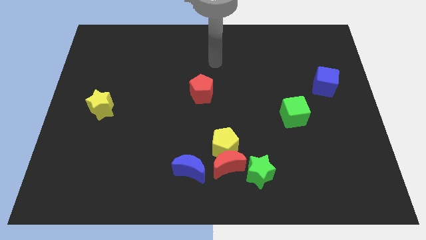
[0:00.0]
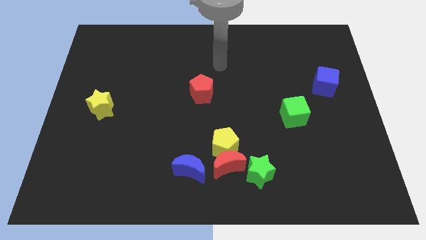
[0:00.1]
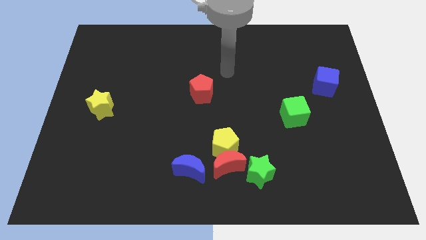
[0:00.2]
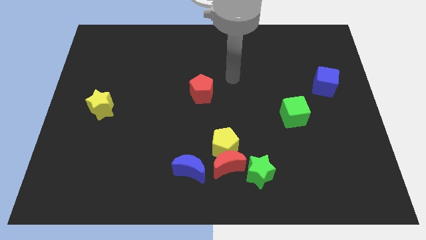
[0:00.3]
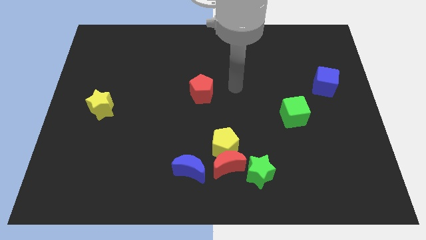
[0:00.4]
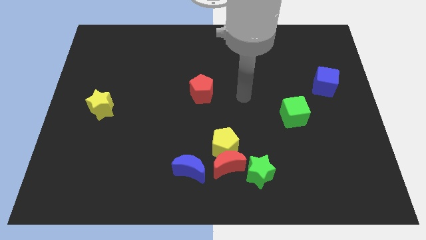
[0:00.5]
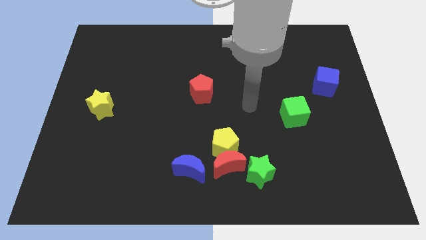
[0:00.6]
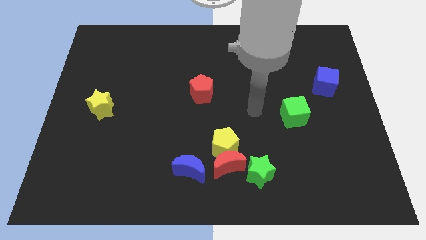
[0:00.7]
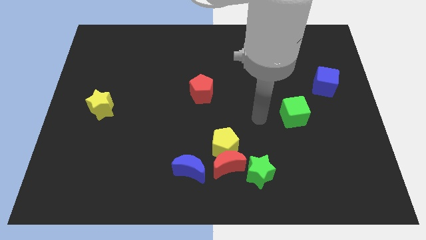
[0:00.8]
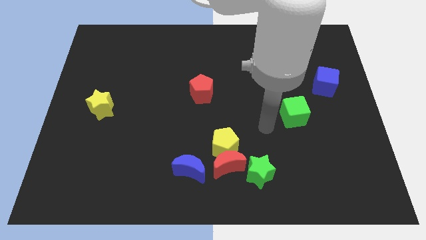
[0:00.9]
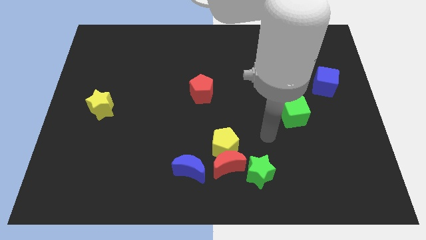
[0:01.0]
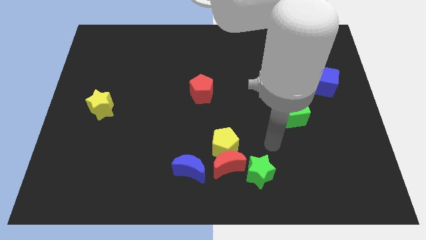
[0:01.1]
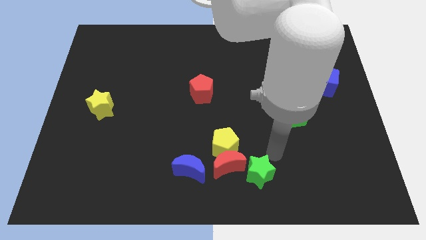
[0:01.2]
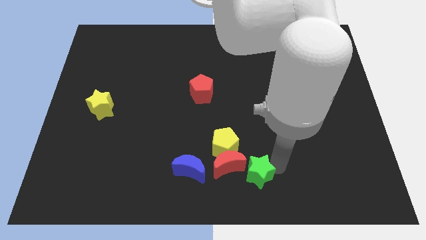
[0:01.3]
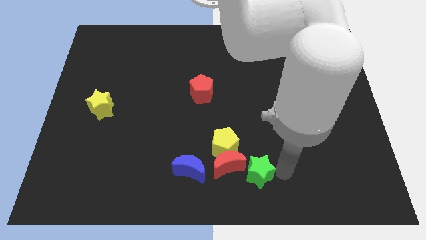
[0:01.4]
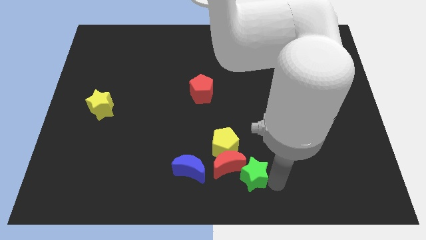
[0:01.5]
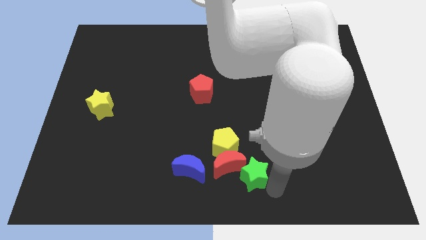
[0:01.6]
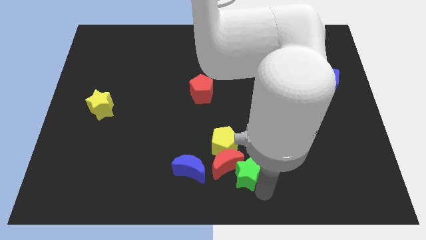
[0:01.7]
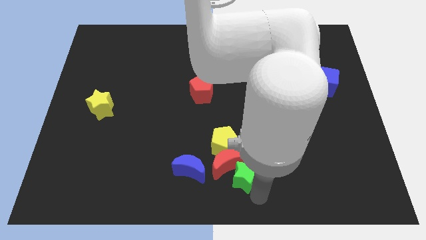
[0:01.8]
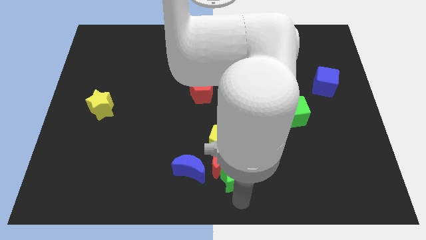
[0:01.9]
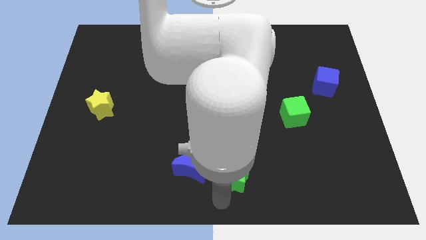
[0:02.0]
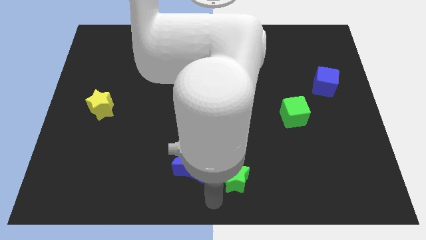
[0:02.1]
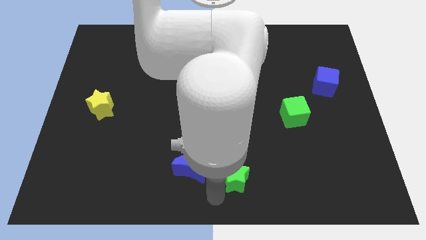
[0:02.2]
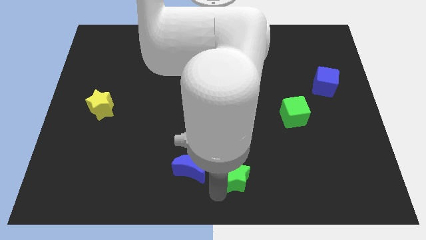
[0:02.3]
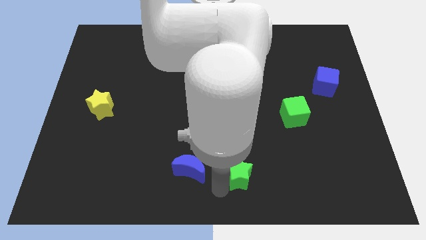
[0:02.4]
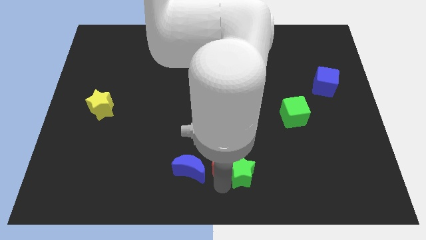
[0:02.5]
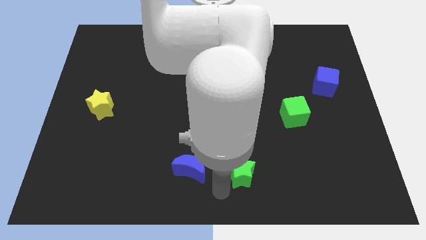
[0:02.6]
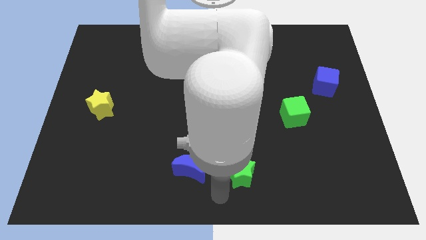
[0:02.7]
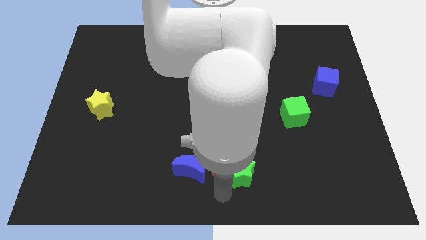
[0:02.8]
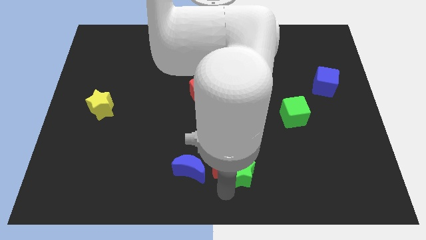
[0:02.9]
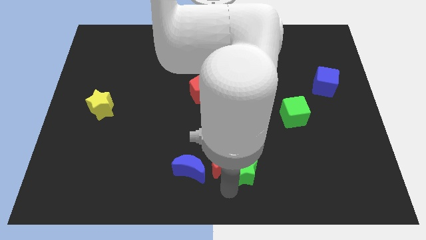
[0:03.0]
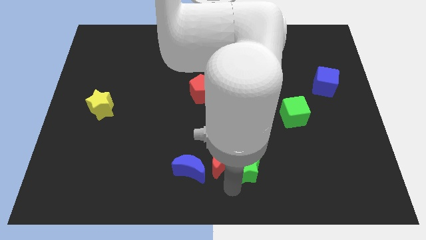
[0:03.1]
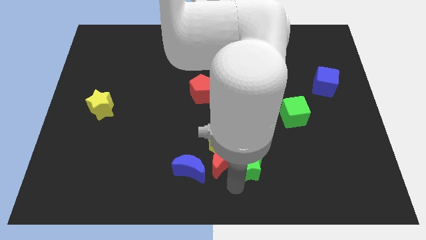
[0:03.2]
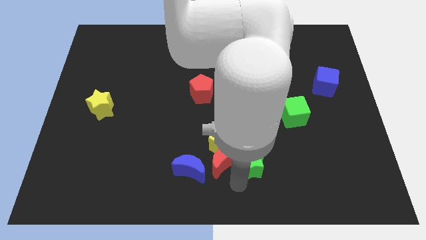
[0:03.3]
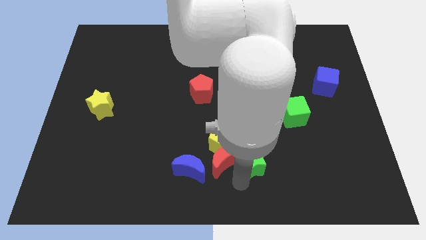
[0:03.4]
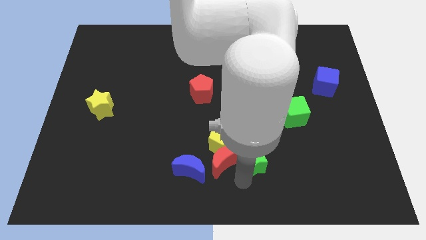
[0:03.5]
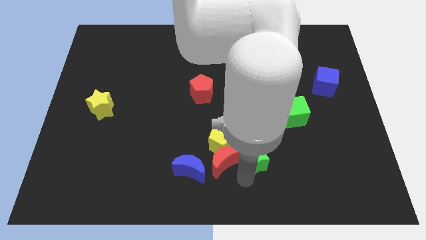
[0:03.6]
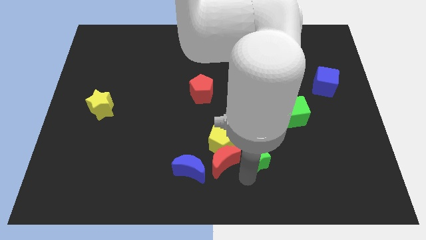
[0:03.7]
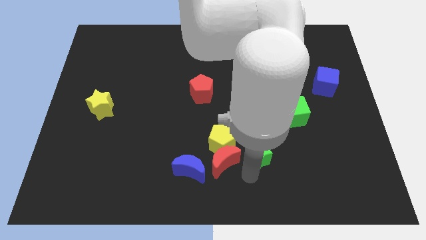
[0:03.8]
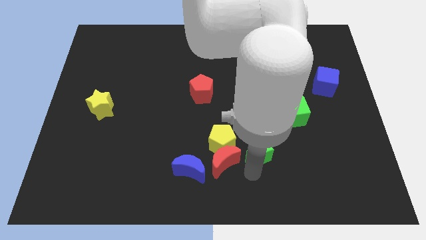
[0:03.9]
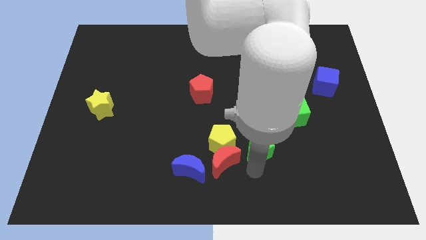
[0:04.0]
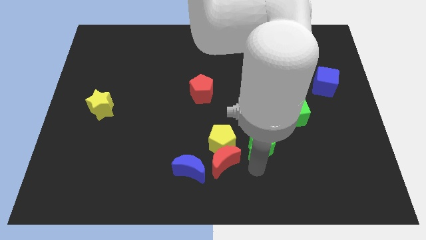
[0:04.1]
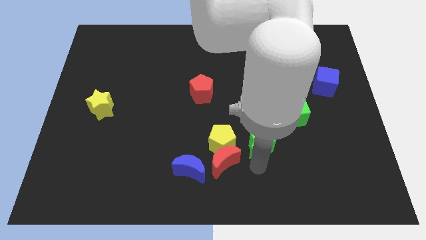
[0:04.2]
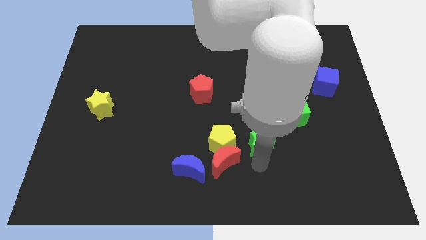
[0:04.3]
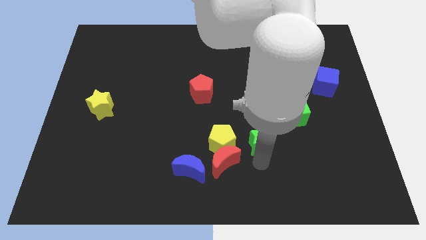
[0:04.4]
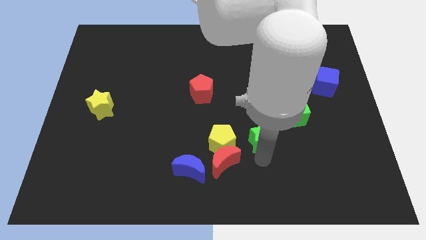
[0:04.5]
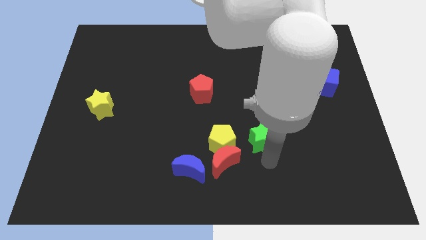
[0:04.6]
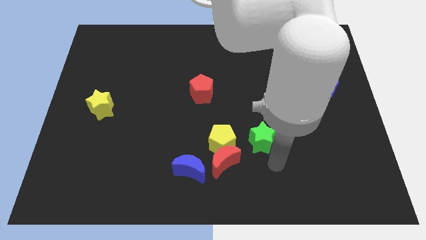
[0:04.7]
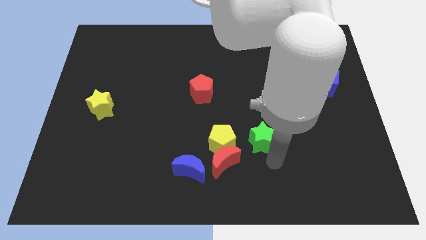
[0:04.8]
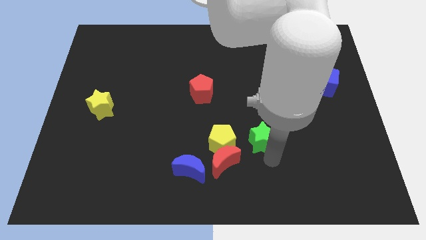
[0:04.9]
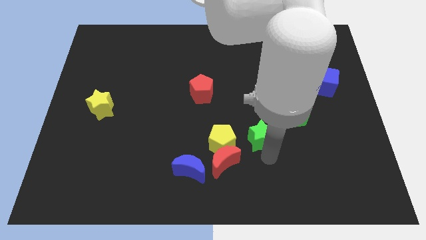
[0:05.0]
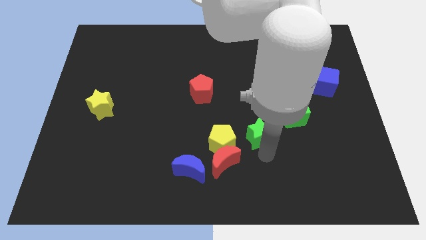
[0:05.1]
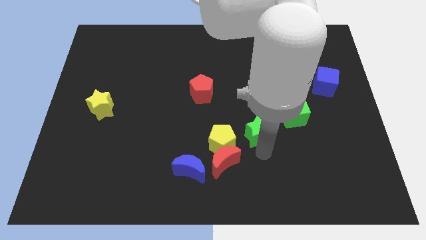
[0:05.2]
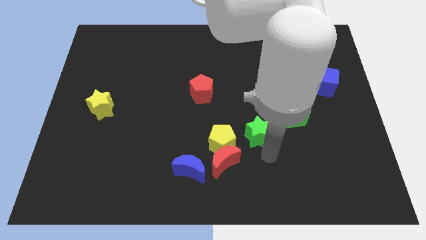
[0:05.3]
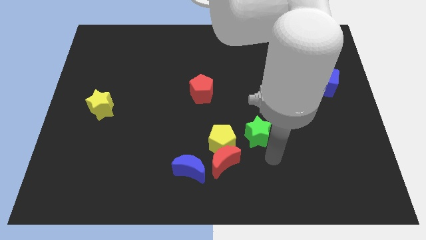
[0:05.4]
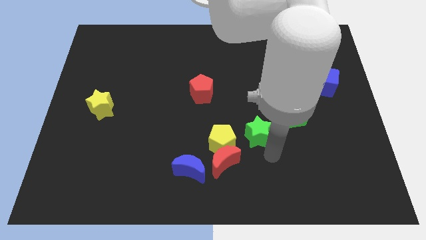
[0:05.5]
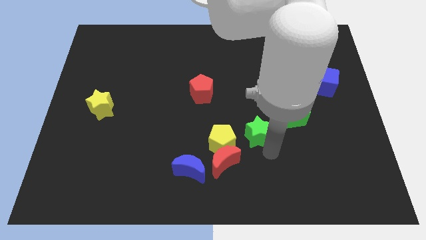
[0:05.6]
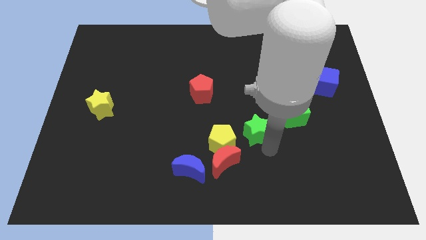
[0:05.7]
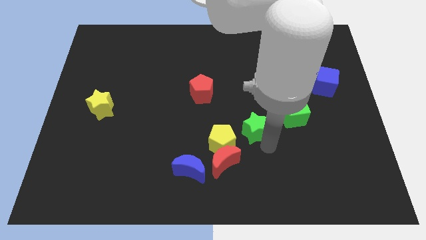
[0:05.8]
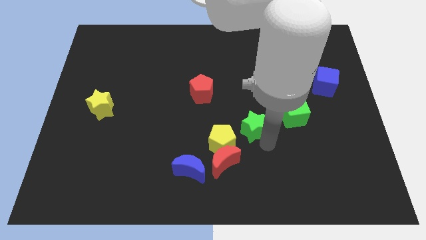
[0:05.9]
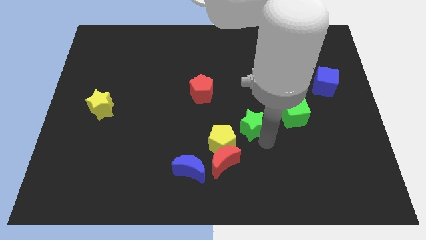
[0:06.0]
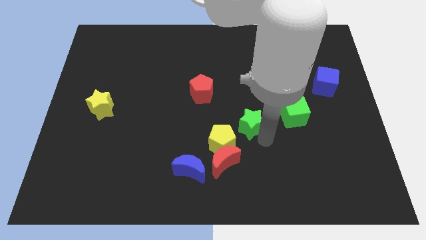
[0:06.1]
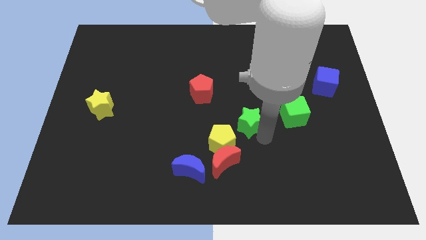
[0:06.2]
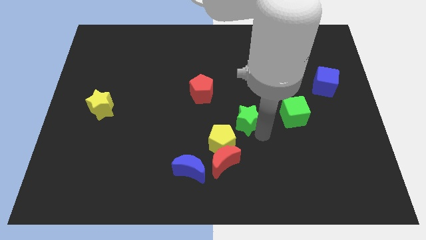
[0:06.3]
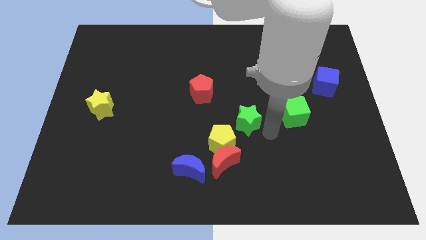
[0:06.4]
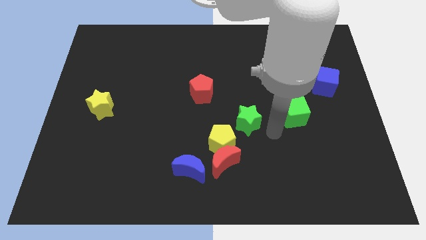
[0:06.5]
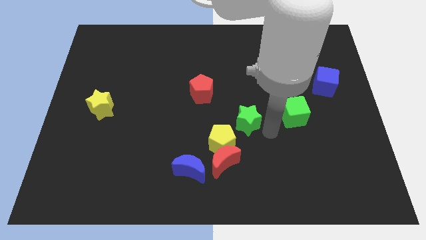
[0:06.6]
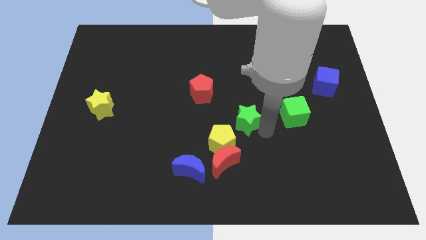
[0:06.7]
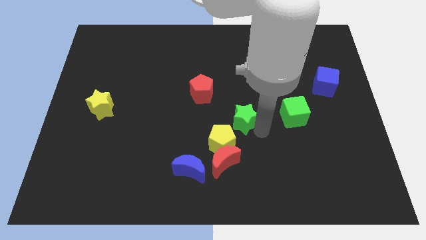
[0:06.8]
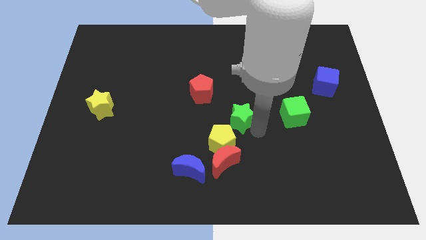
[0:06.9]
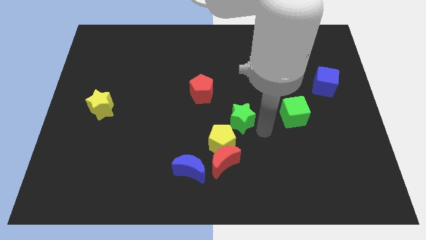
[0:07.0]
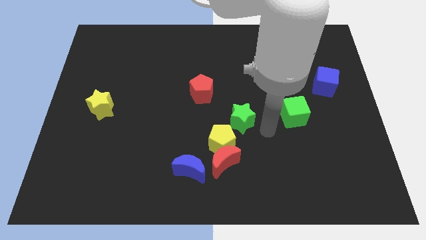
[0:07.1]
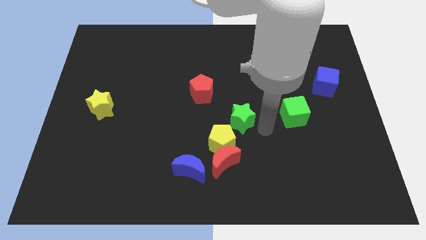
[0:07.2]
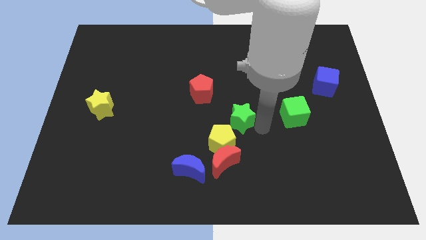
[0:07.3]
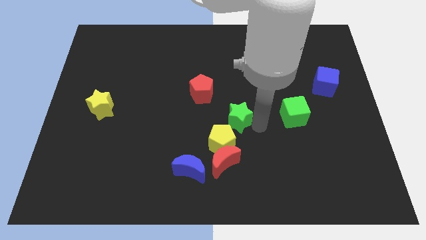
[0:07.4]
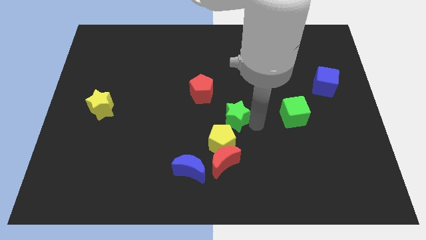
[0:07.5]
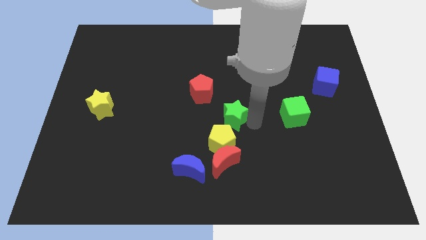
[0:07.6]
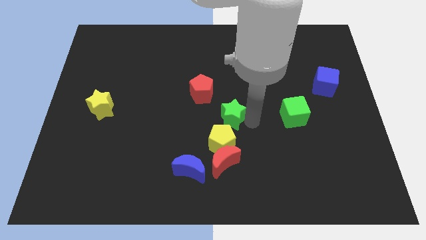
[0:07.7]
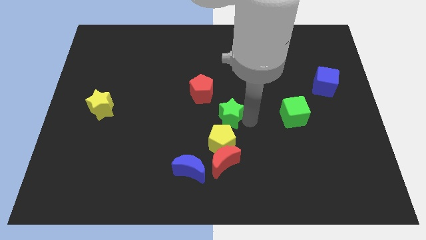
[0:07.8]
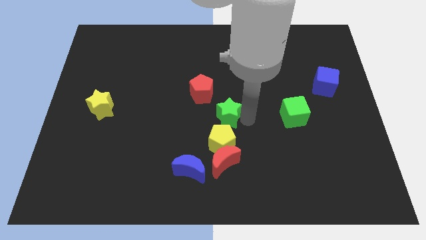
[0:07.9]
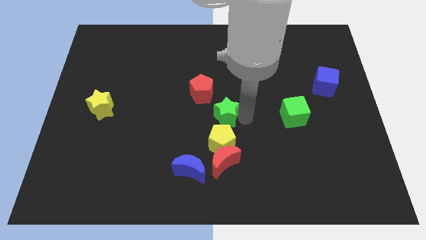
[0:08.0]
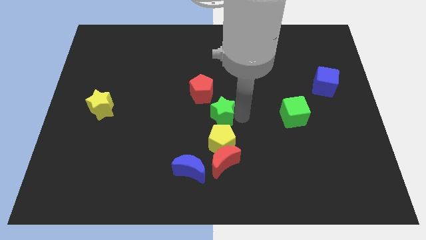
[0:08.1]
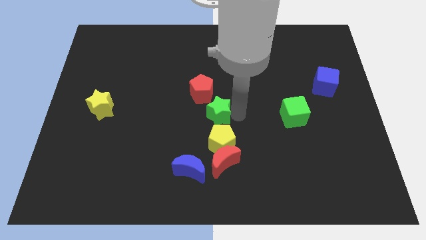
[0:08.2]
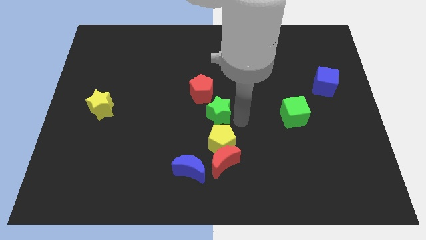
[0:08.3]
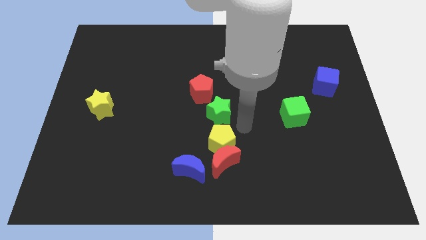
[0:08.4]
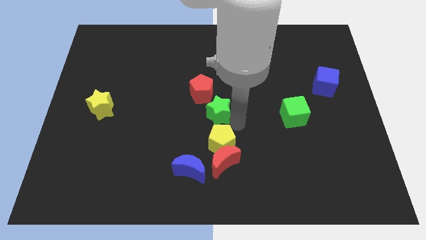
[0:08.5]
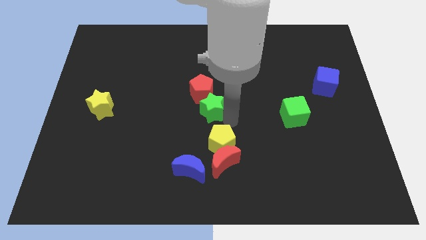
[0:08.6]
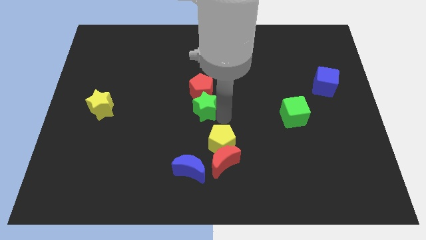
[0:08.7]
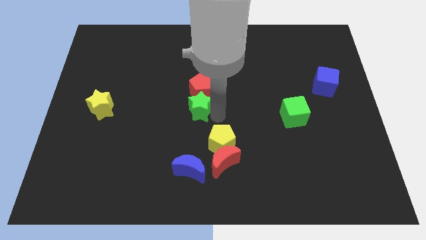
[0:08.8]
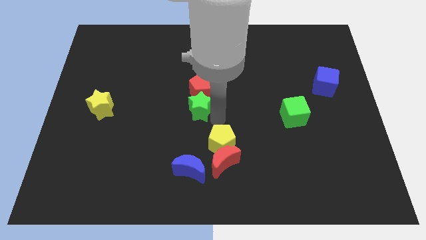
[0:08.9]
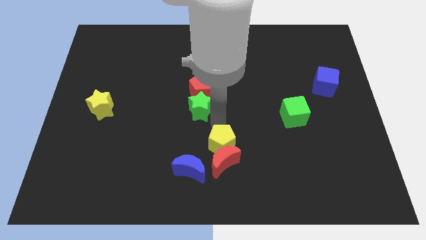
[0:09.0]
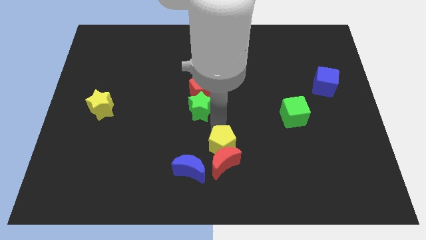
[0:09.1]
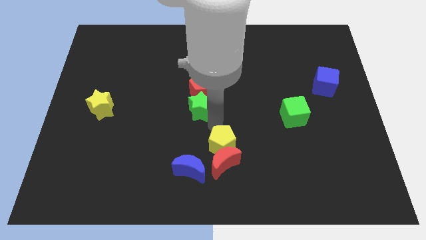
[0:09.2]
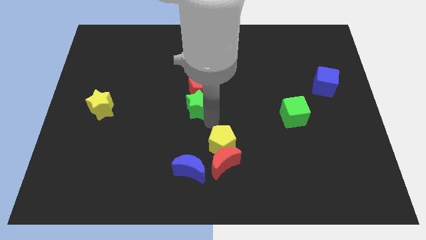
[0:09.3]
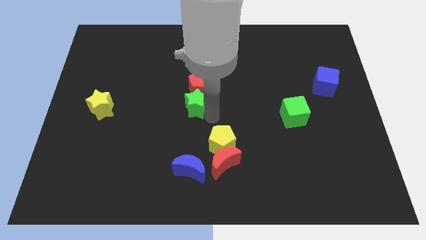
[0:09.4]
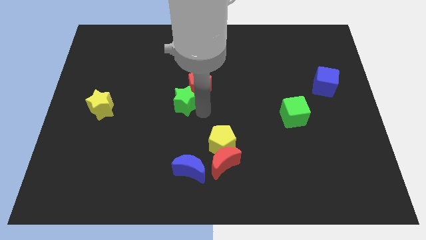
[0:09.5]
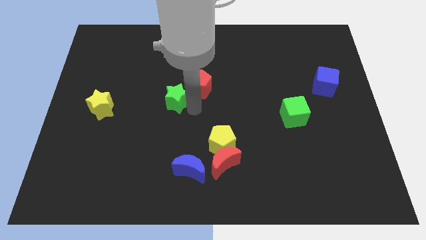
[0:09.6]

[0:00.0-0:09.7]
put the green star to the left of the red pentagon
